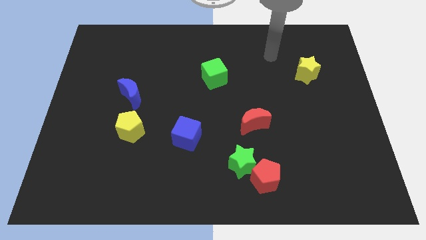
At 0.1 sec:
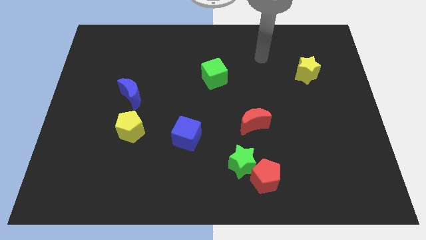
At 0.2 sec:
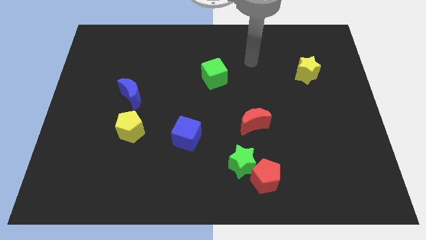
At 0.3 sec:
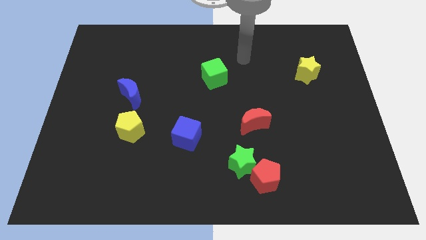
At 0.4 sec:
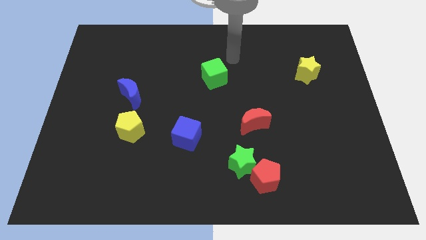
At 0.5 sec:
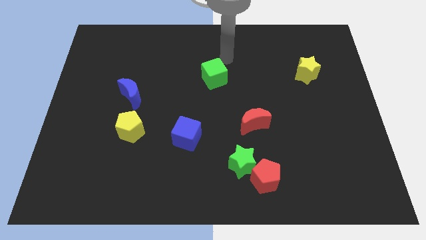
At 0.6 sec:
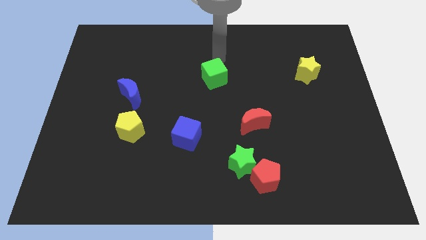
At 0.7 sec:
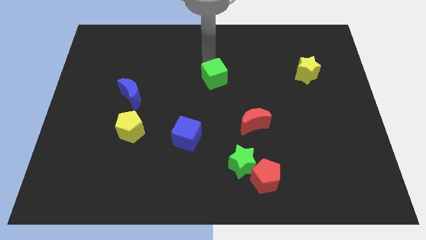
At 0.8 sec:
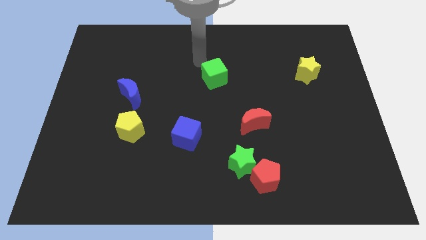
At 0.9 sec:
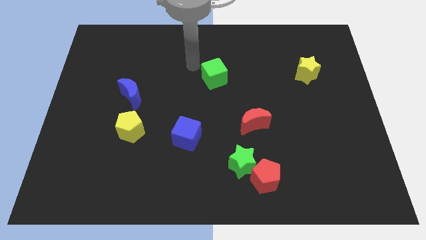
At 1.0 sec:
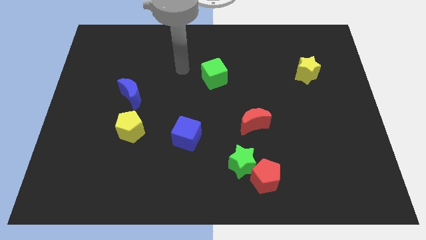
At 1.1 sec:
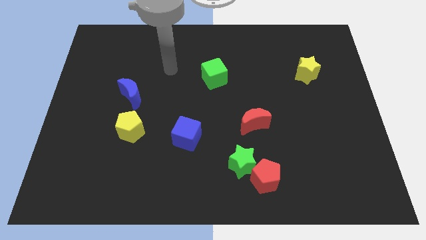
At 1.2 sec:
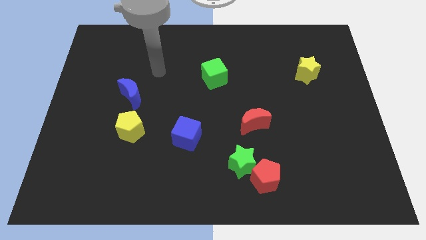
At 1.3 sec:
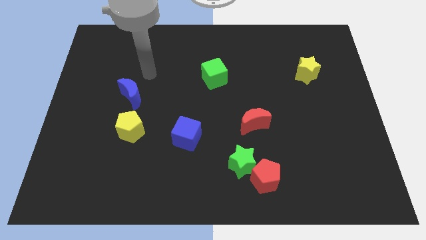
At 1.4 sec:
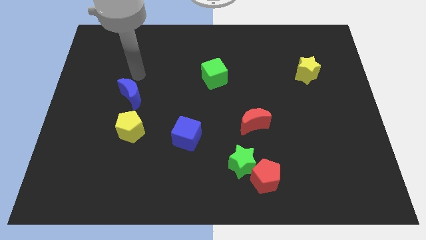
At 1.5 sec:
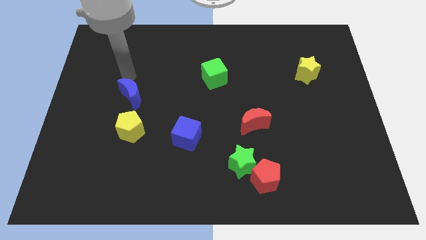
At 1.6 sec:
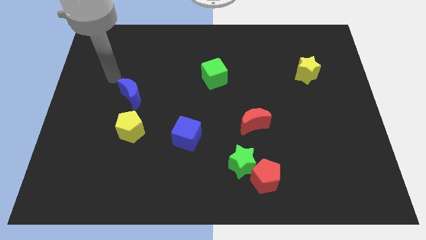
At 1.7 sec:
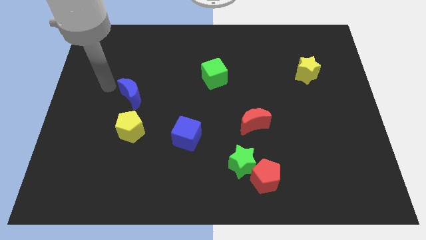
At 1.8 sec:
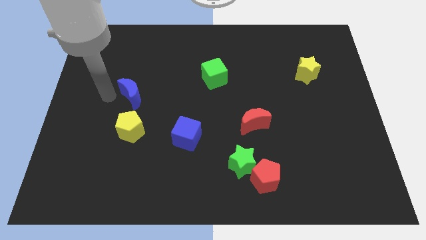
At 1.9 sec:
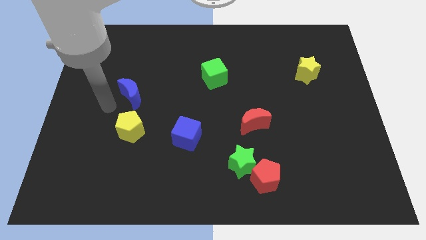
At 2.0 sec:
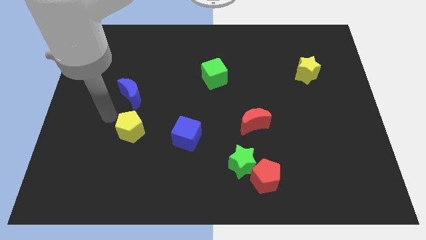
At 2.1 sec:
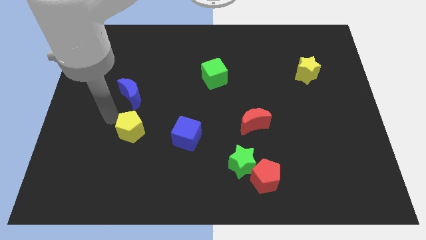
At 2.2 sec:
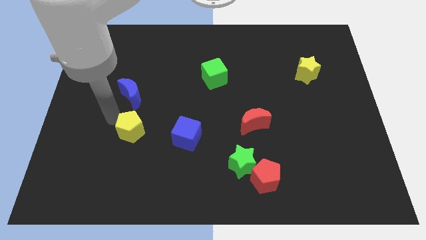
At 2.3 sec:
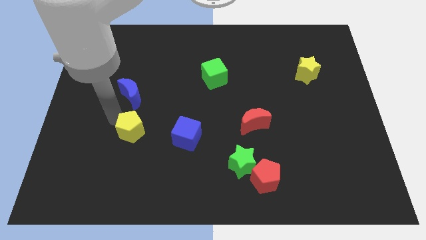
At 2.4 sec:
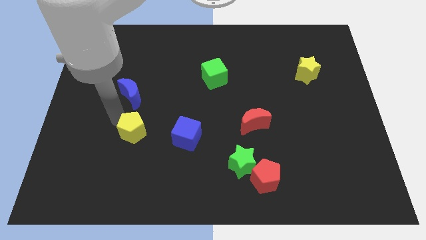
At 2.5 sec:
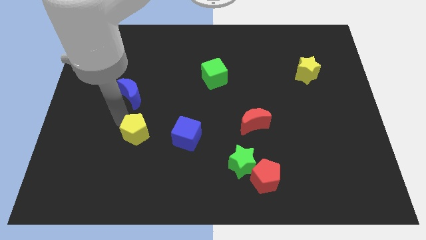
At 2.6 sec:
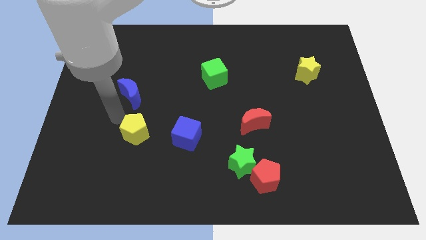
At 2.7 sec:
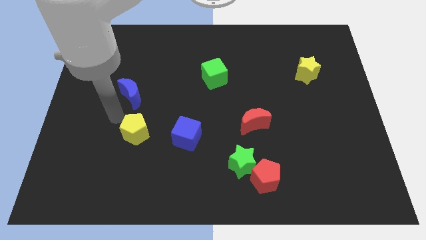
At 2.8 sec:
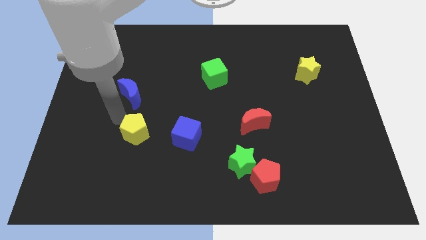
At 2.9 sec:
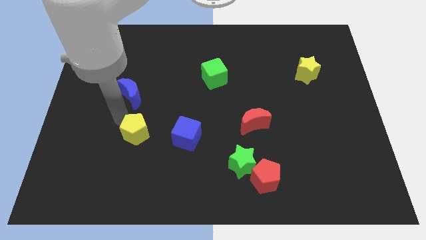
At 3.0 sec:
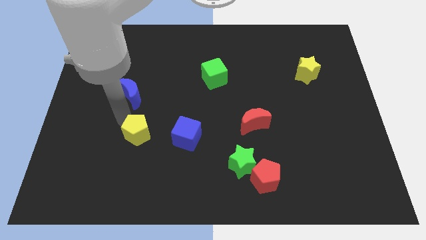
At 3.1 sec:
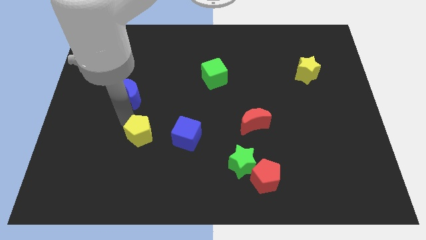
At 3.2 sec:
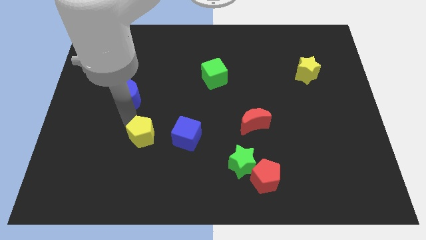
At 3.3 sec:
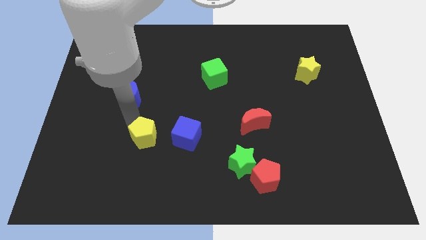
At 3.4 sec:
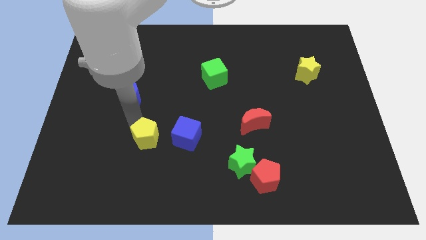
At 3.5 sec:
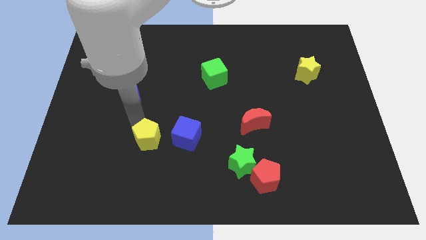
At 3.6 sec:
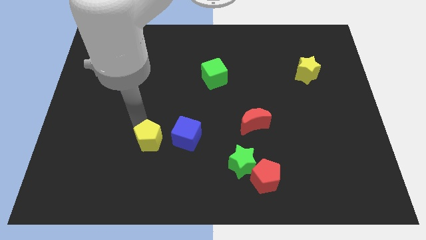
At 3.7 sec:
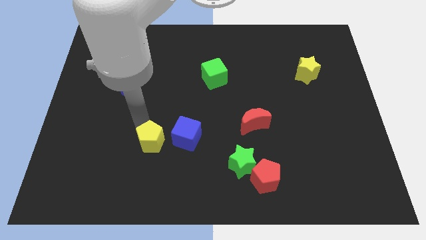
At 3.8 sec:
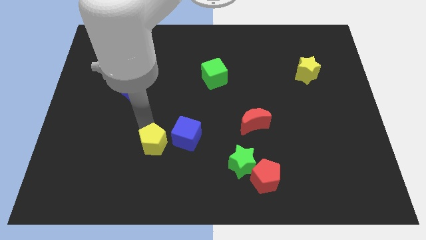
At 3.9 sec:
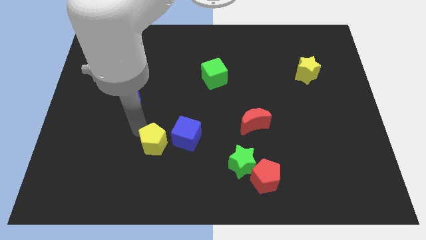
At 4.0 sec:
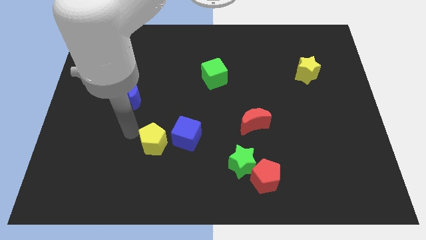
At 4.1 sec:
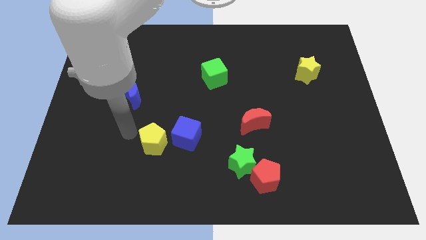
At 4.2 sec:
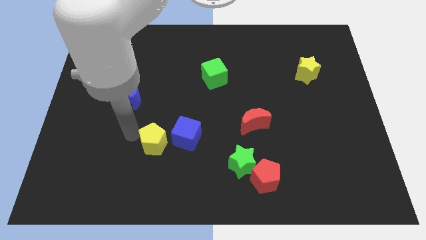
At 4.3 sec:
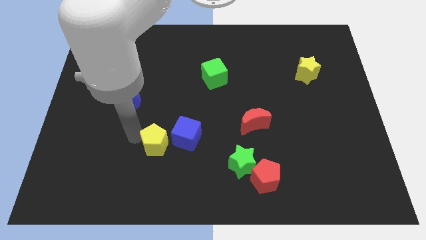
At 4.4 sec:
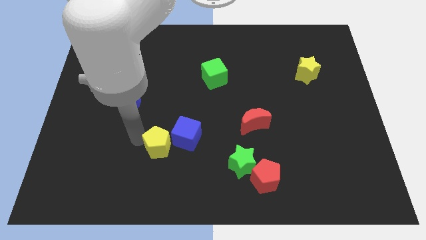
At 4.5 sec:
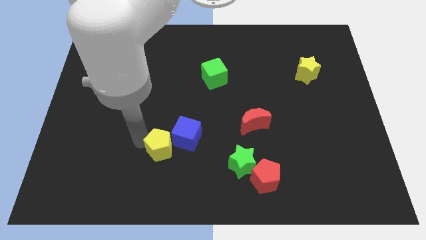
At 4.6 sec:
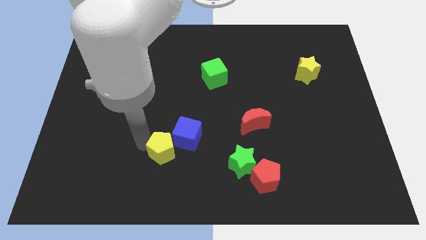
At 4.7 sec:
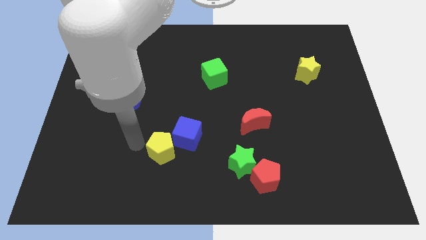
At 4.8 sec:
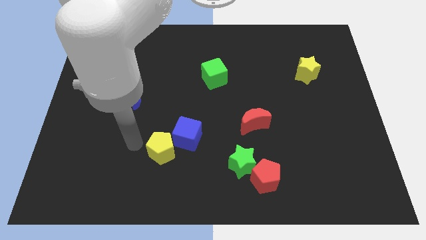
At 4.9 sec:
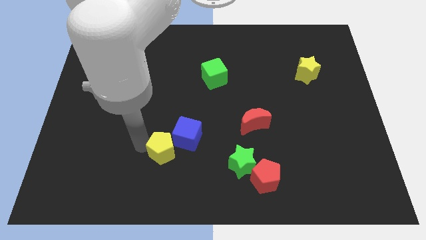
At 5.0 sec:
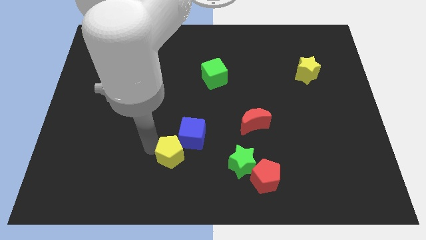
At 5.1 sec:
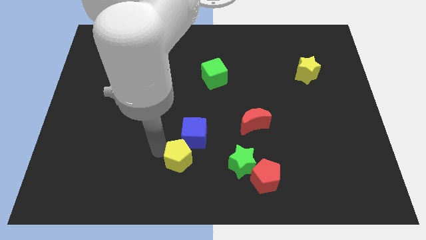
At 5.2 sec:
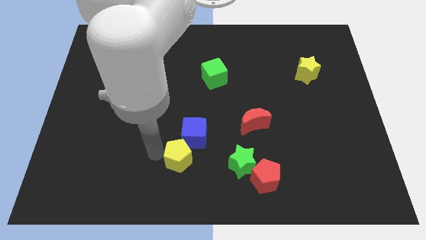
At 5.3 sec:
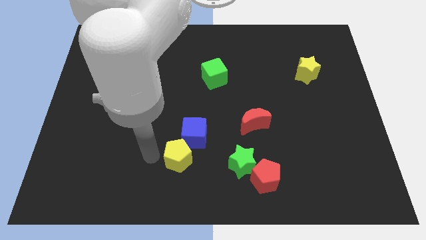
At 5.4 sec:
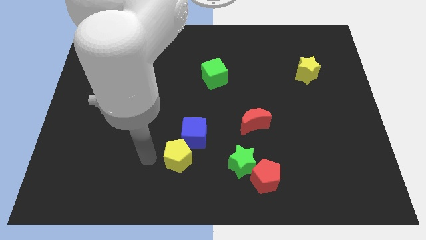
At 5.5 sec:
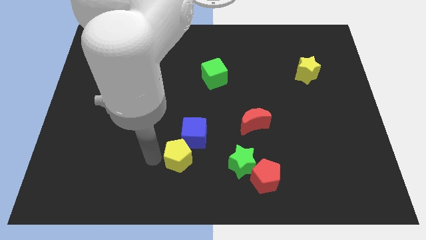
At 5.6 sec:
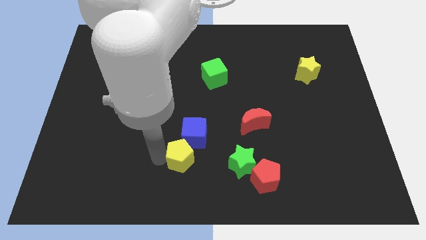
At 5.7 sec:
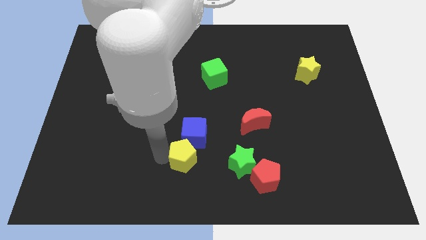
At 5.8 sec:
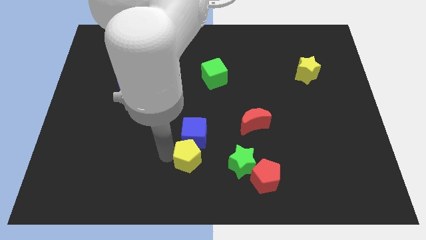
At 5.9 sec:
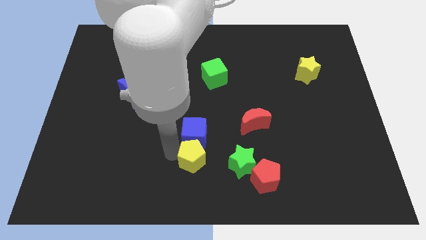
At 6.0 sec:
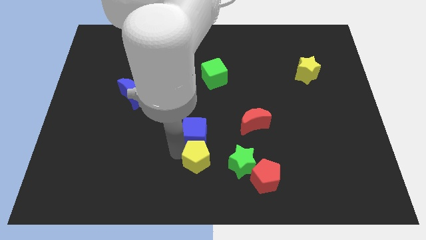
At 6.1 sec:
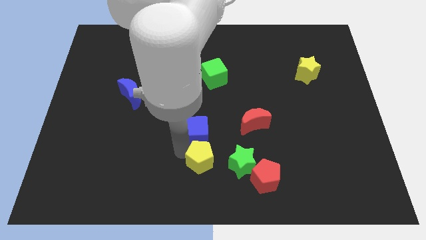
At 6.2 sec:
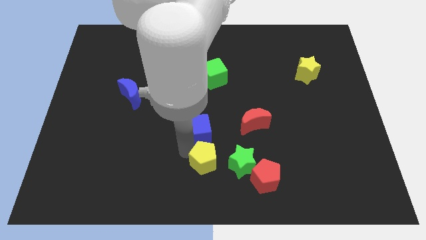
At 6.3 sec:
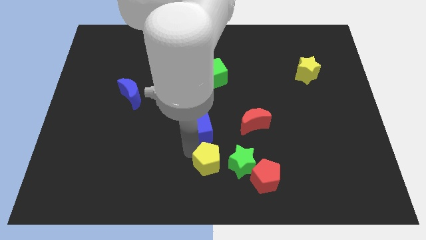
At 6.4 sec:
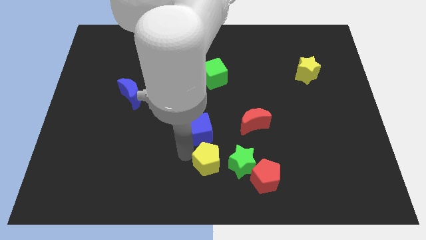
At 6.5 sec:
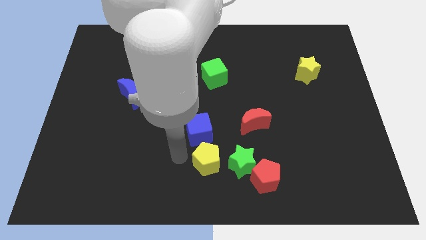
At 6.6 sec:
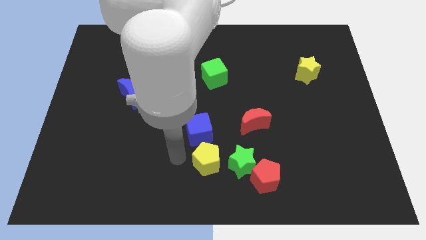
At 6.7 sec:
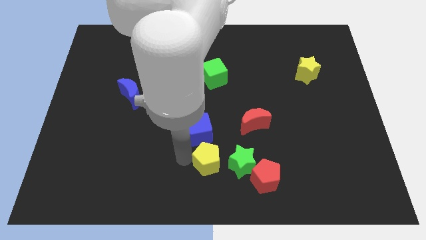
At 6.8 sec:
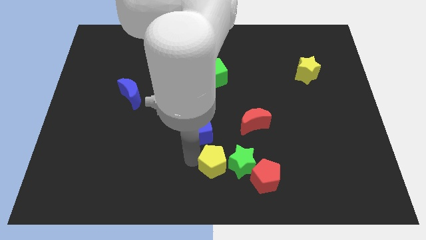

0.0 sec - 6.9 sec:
push the yellow pentagon next to the green star
